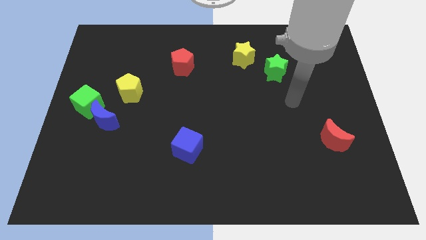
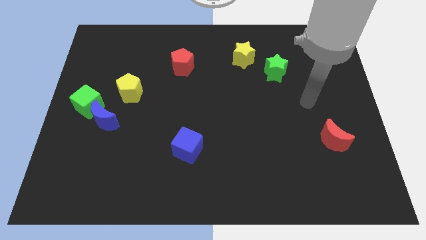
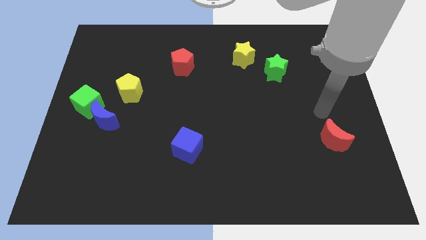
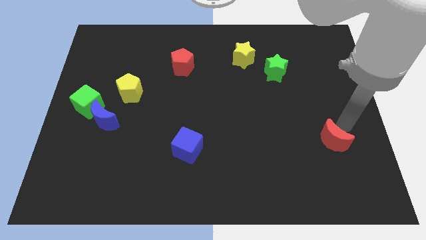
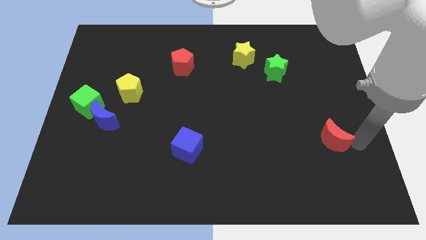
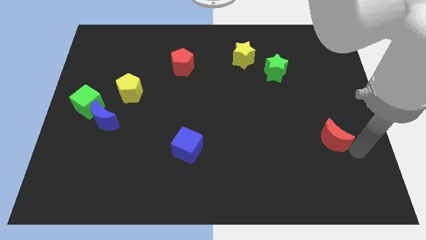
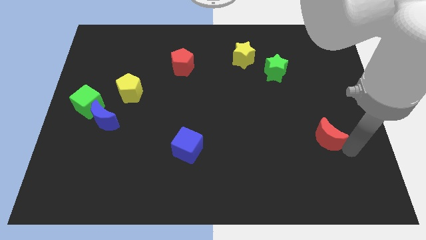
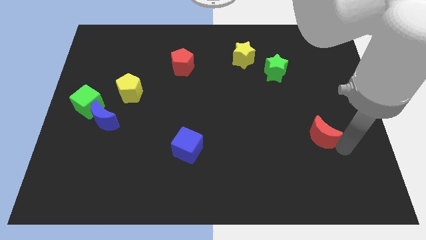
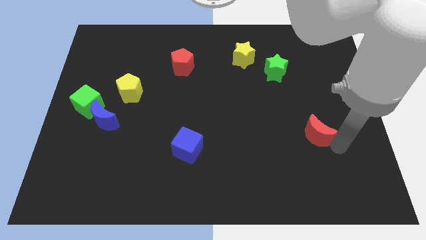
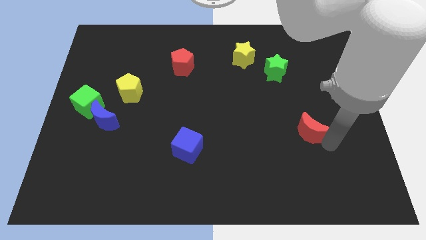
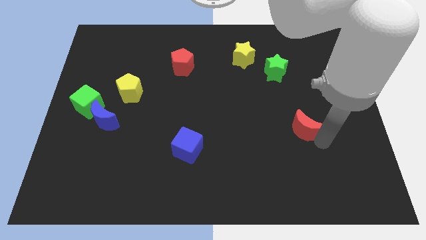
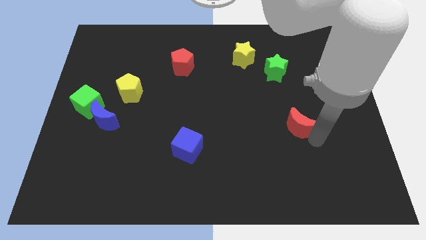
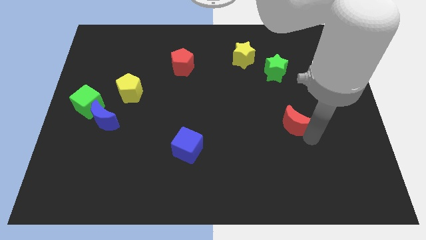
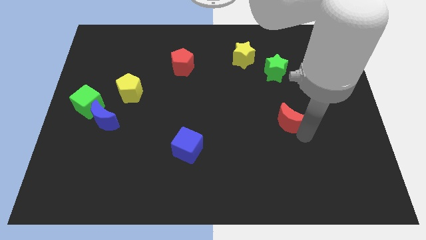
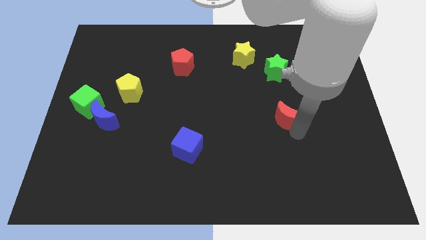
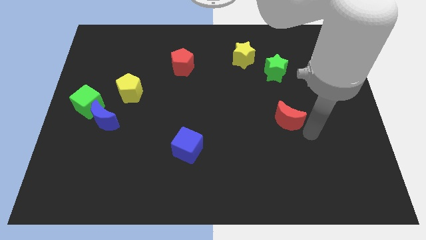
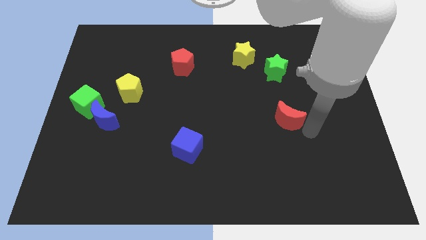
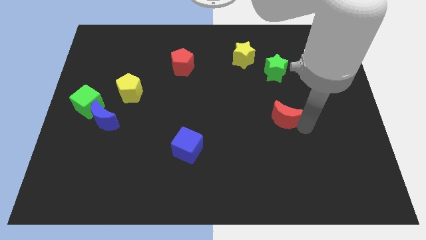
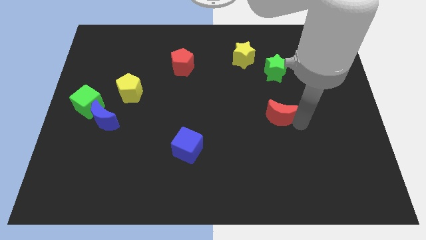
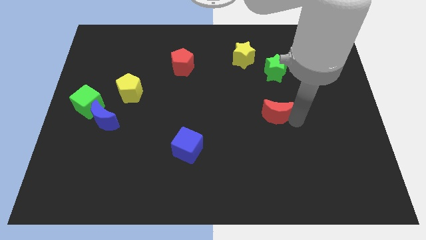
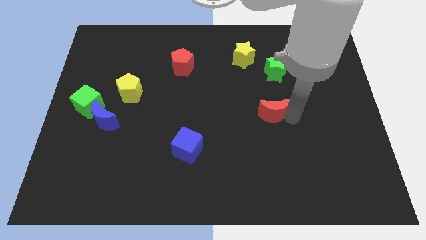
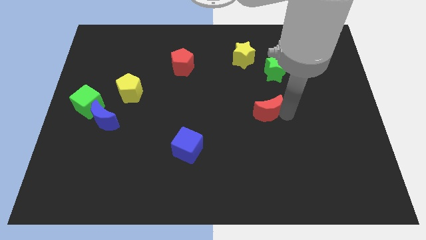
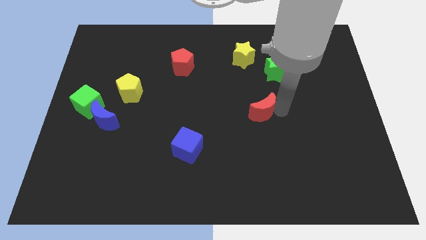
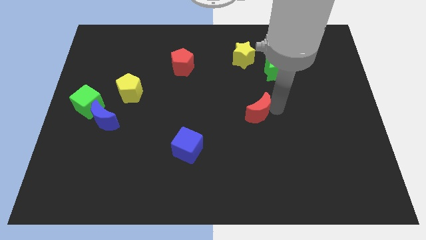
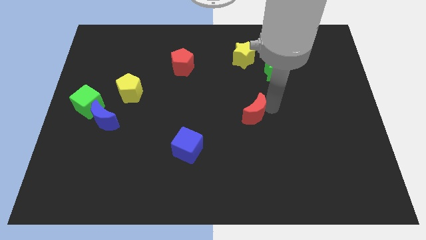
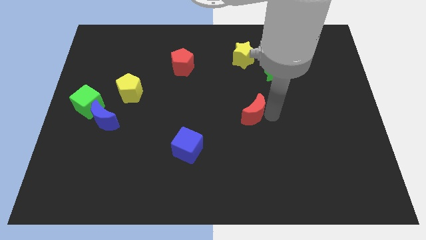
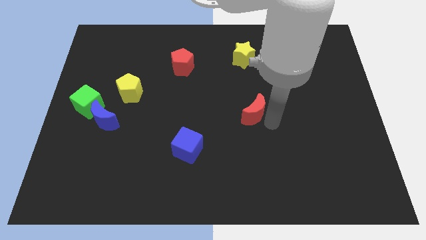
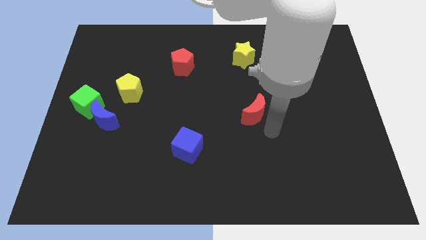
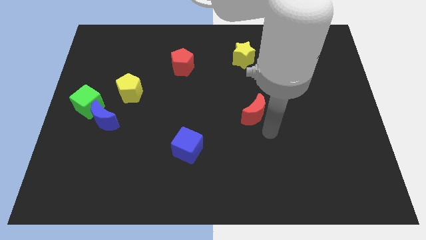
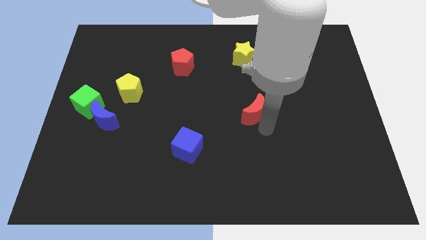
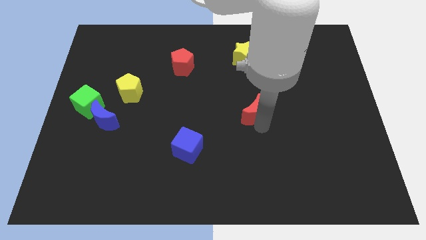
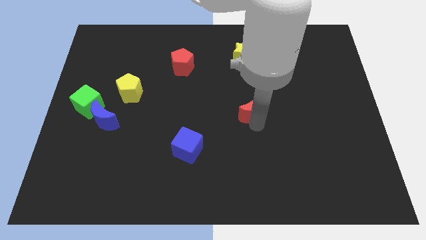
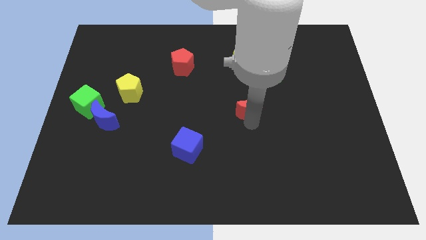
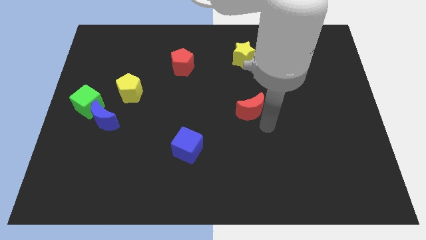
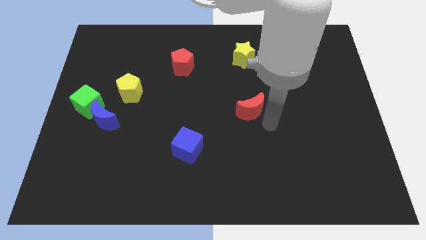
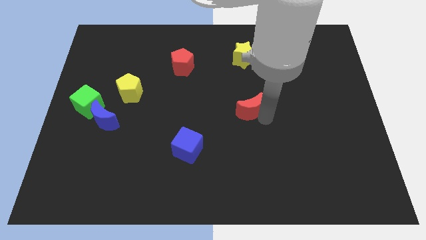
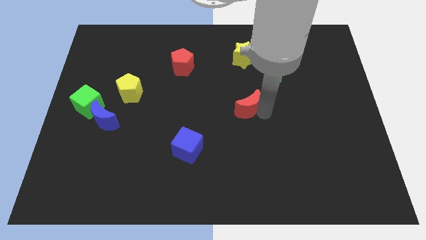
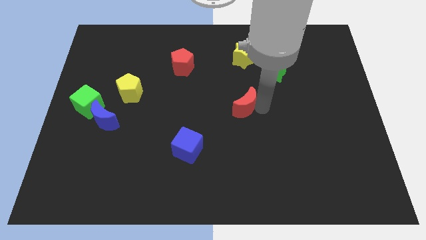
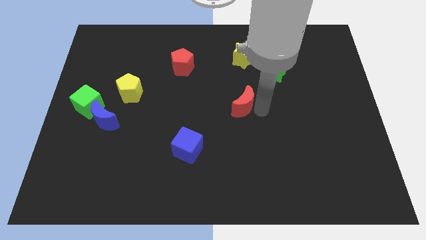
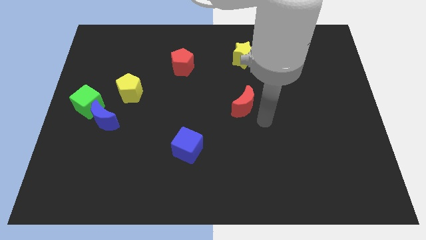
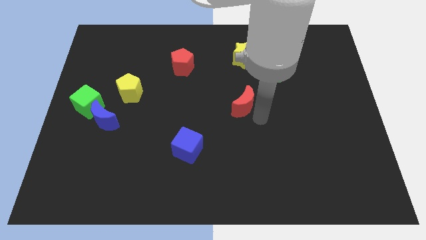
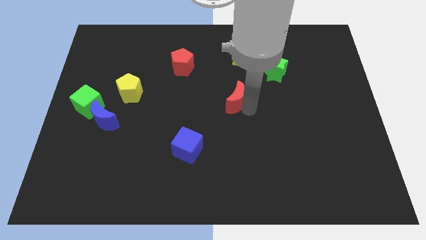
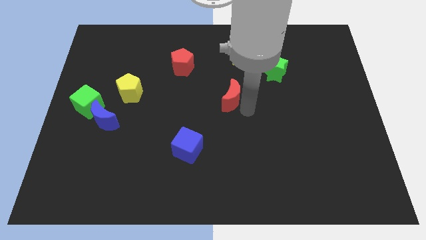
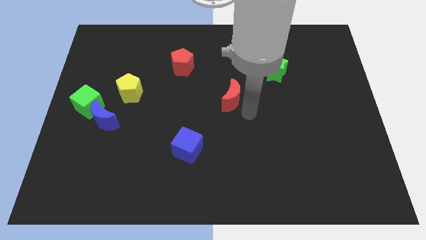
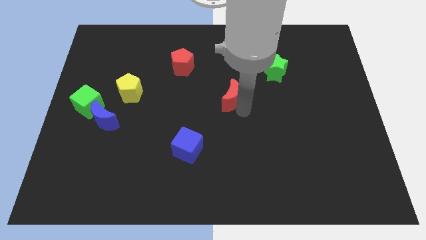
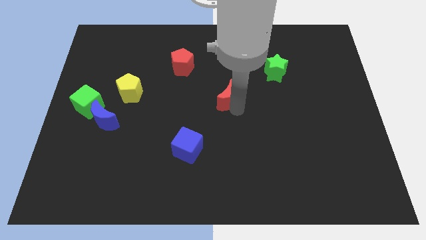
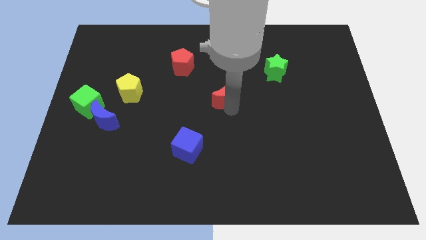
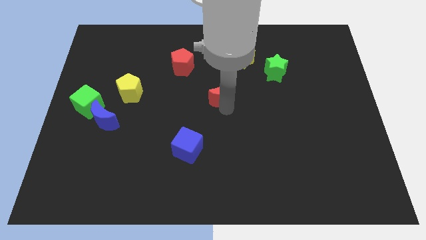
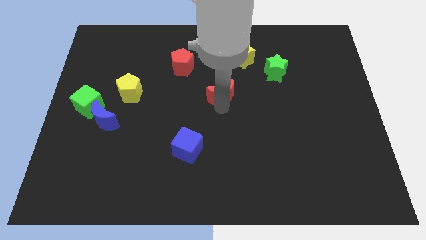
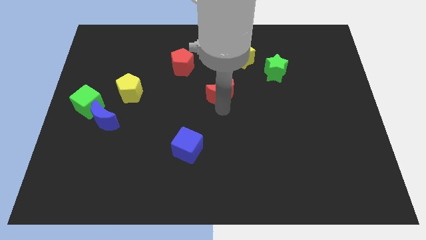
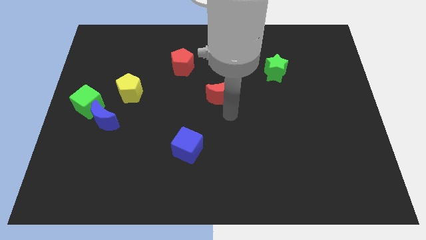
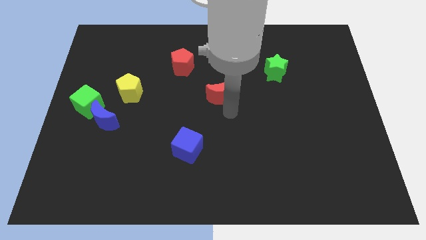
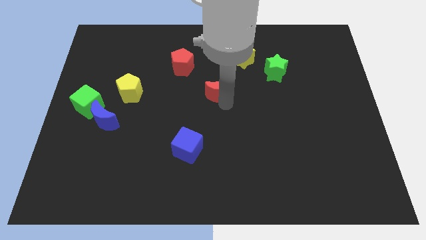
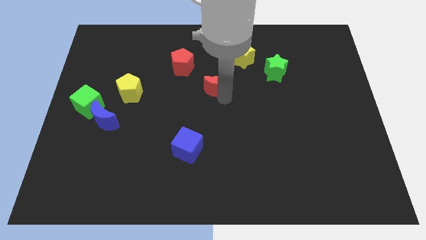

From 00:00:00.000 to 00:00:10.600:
put the red moon to the bottom right side of the red pentagon

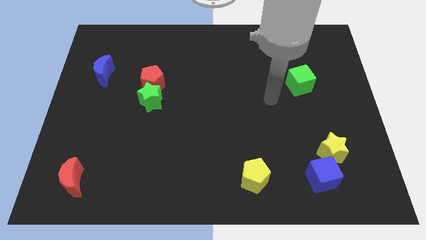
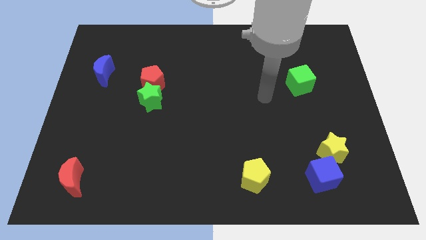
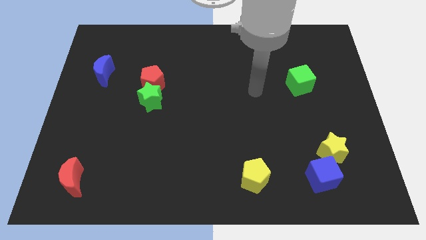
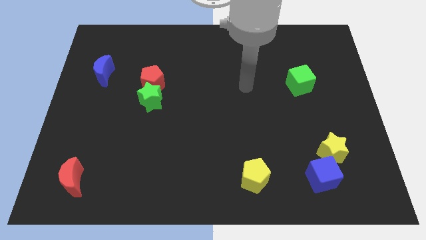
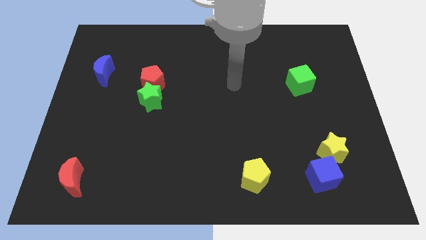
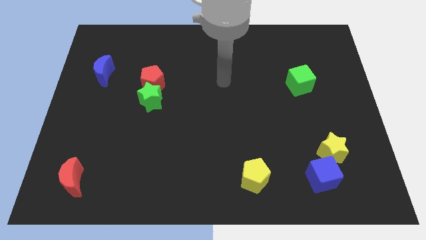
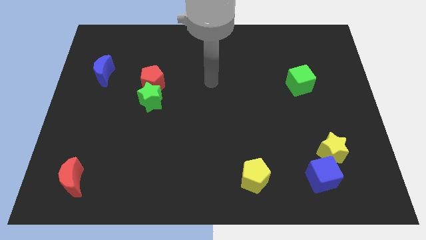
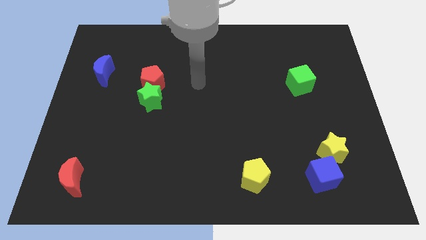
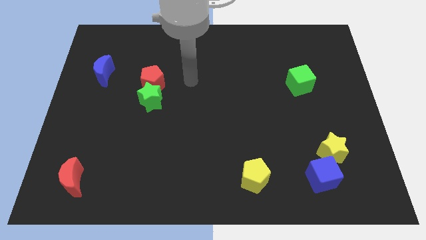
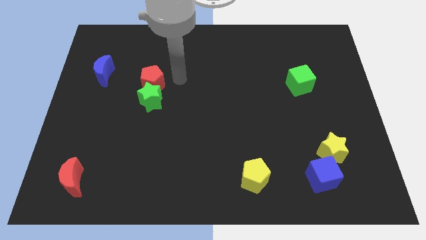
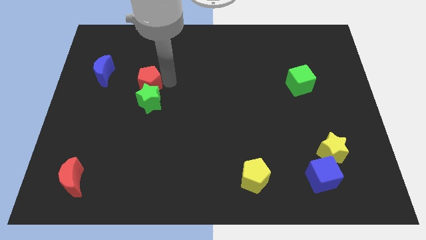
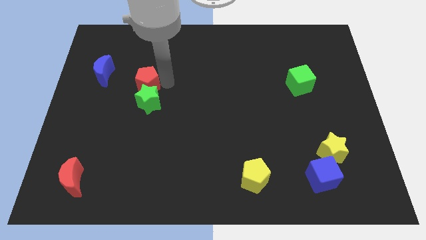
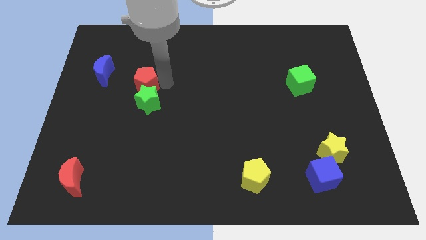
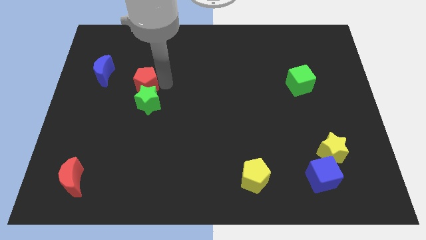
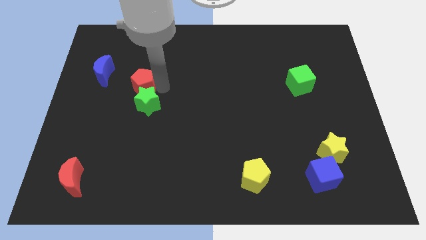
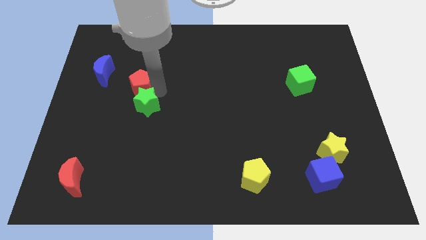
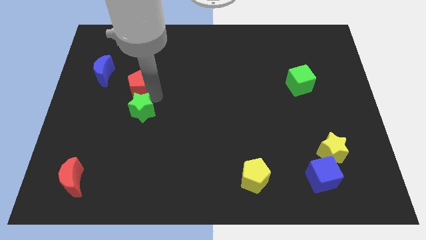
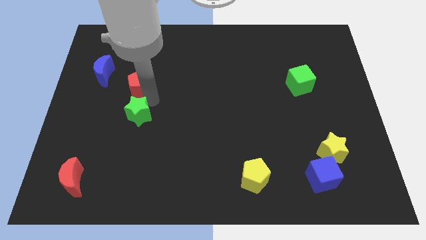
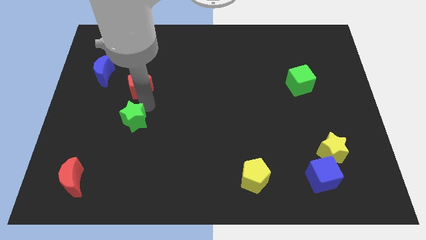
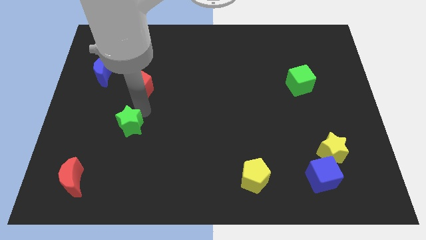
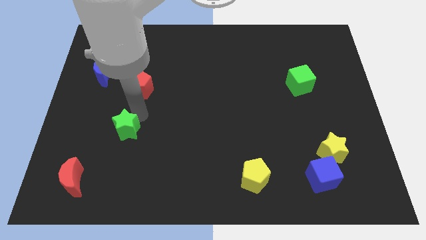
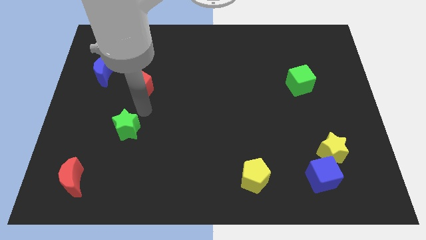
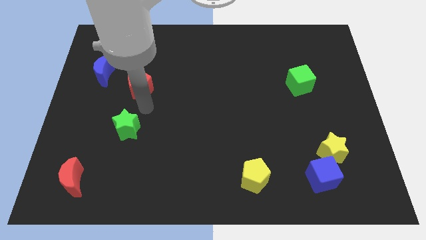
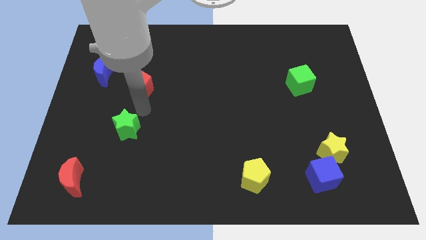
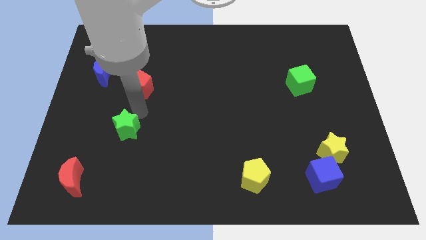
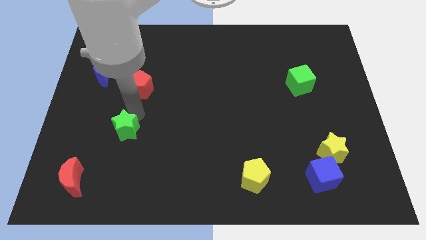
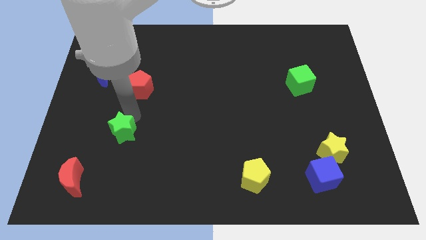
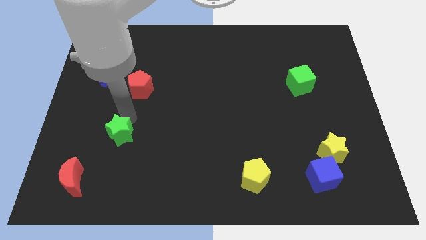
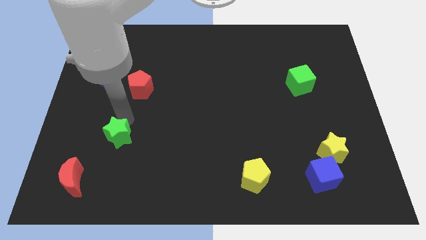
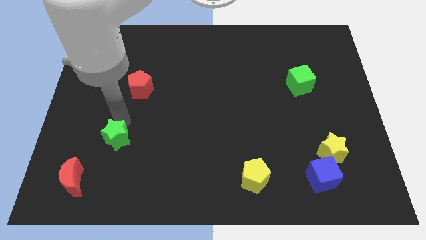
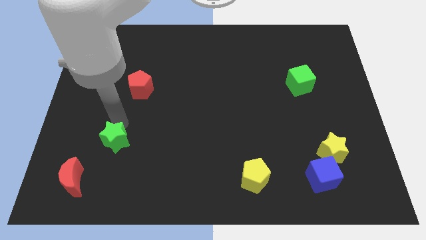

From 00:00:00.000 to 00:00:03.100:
push the green star diagonally up and to the right of the red moon
